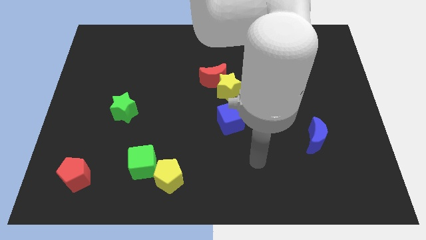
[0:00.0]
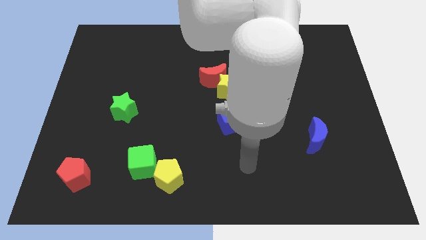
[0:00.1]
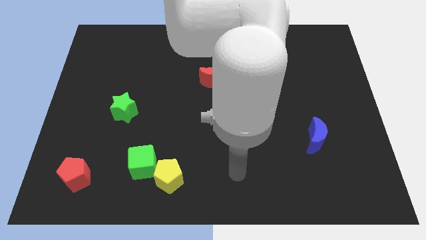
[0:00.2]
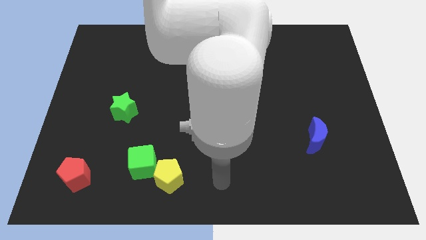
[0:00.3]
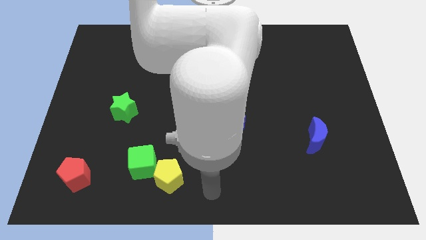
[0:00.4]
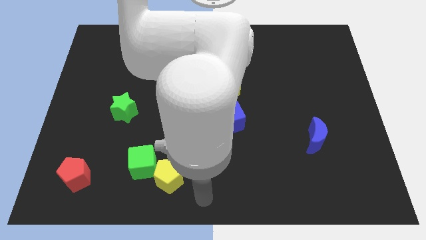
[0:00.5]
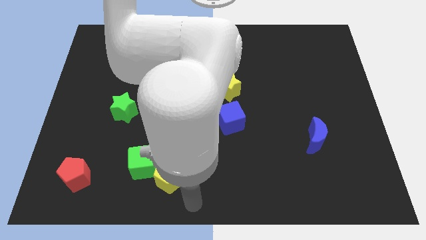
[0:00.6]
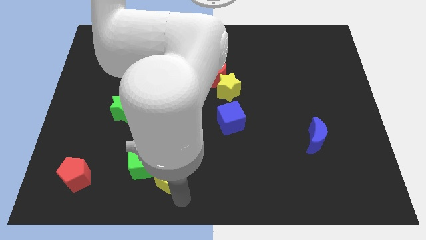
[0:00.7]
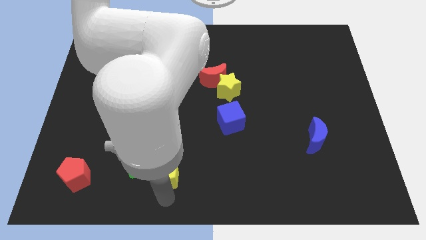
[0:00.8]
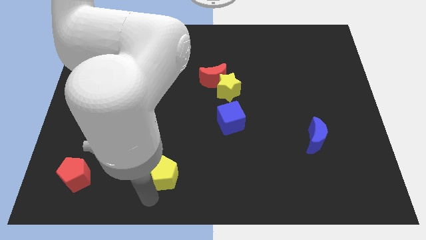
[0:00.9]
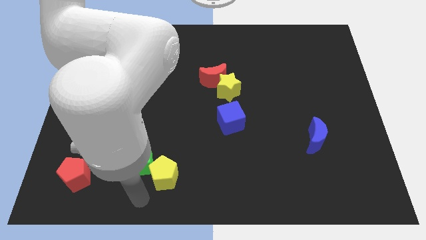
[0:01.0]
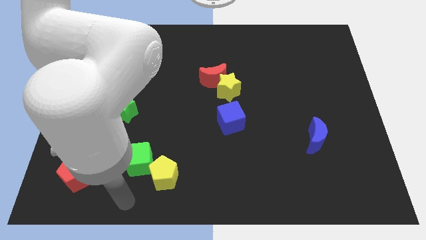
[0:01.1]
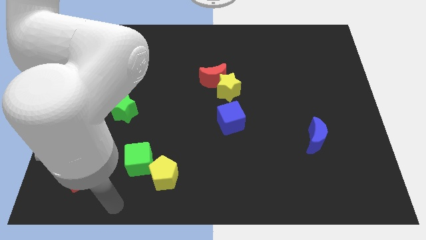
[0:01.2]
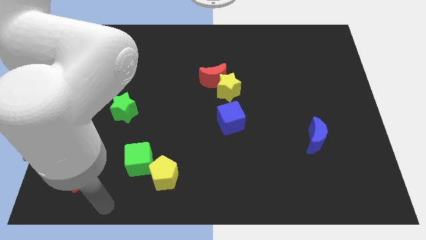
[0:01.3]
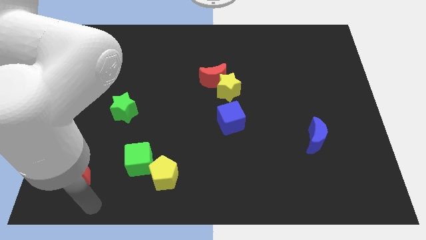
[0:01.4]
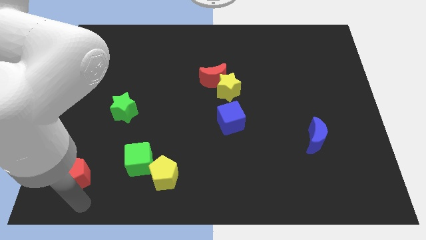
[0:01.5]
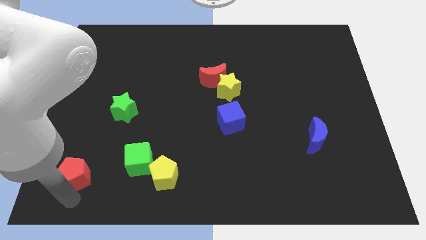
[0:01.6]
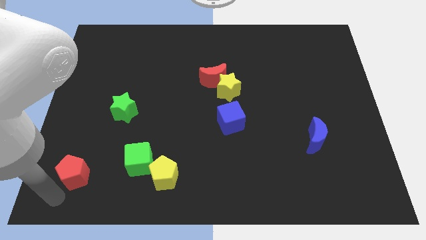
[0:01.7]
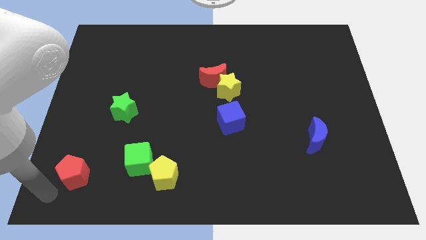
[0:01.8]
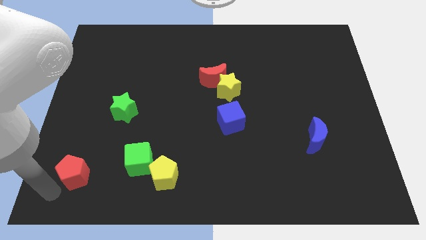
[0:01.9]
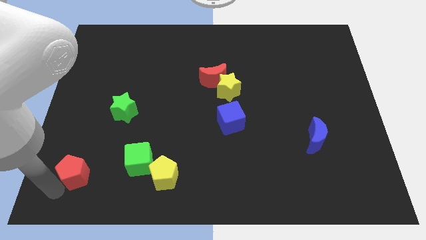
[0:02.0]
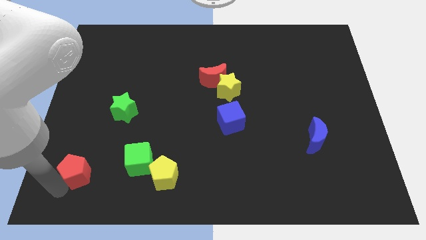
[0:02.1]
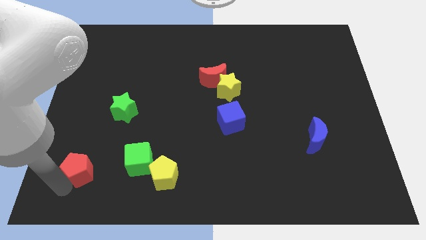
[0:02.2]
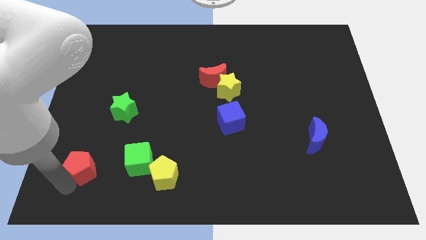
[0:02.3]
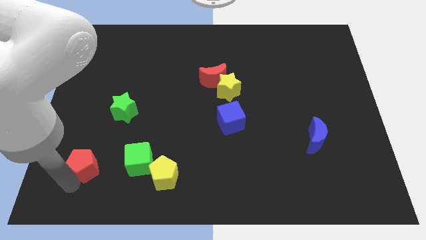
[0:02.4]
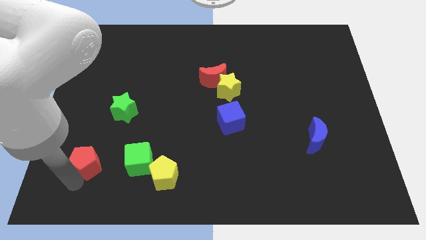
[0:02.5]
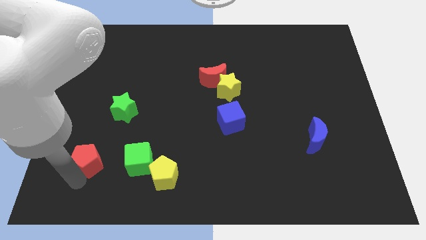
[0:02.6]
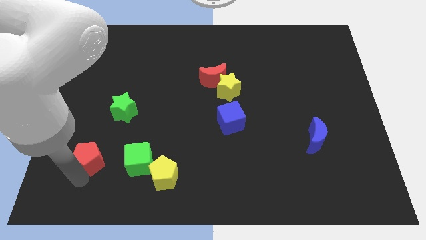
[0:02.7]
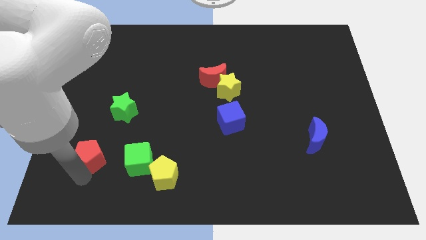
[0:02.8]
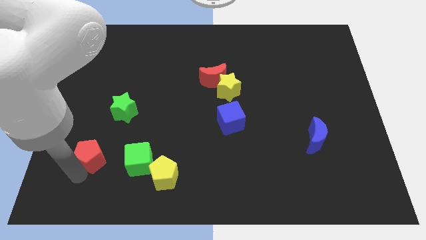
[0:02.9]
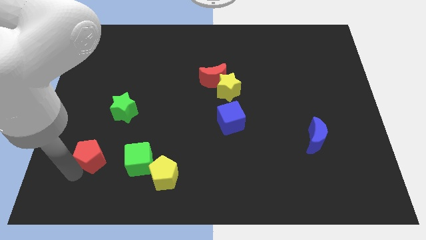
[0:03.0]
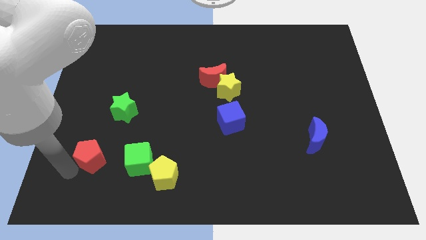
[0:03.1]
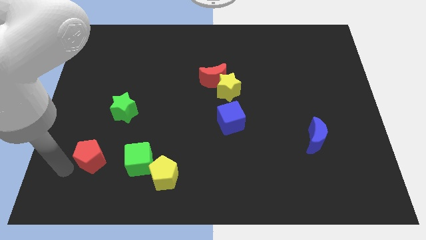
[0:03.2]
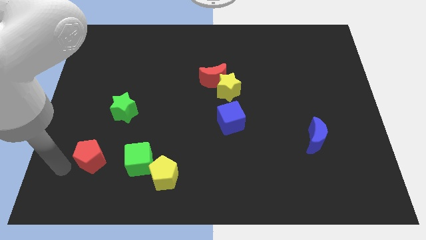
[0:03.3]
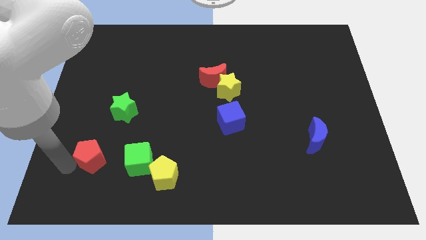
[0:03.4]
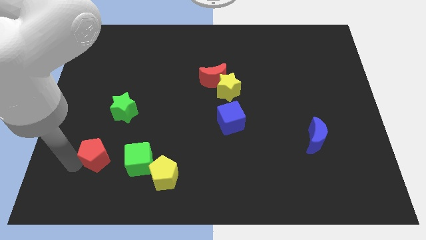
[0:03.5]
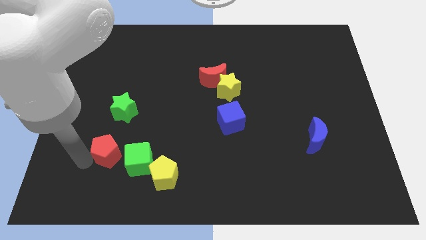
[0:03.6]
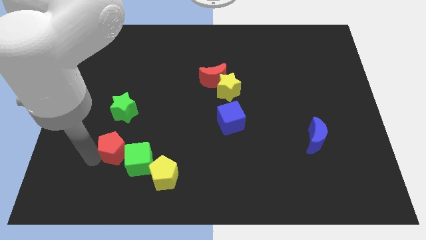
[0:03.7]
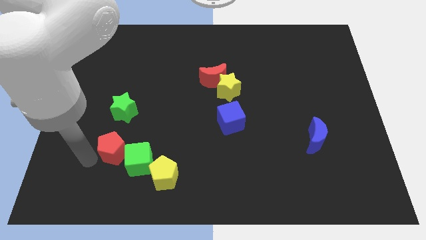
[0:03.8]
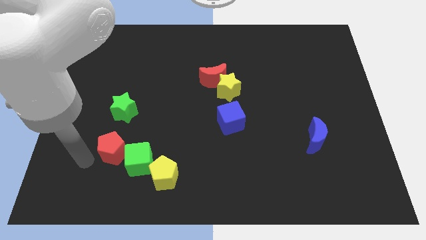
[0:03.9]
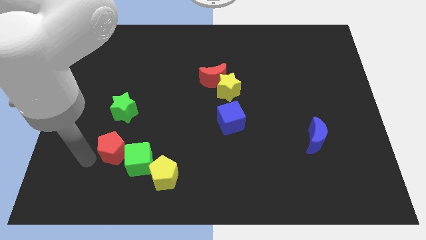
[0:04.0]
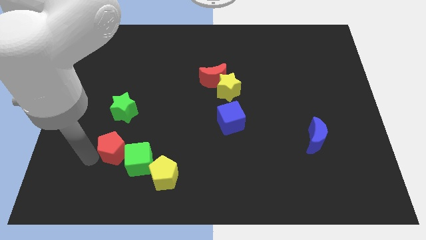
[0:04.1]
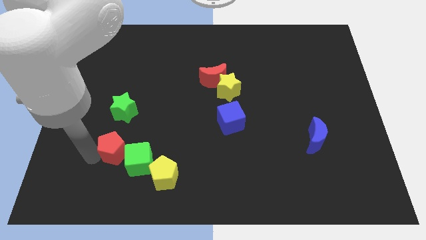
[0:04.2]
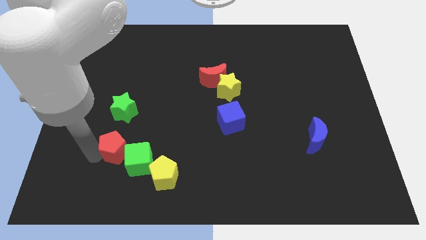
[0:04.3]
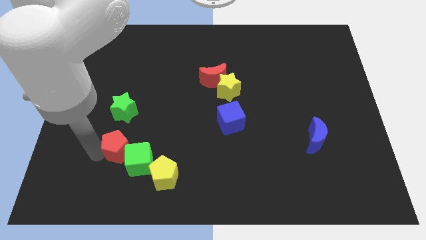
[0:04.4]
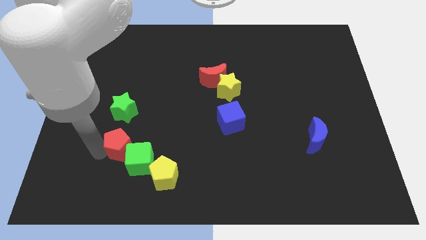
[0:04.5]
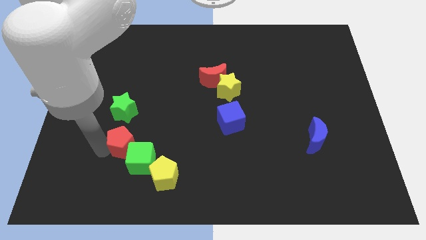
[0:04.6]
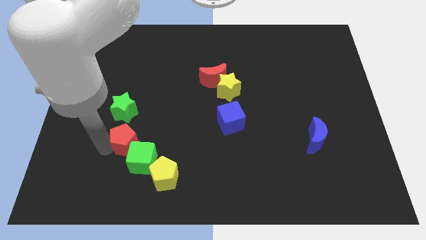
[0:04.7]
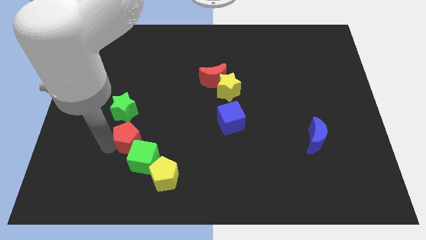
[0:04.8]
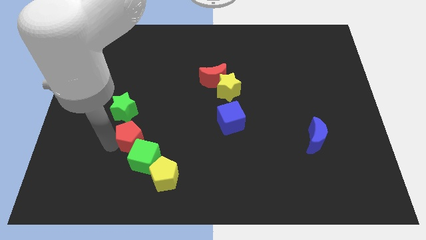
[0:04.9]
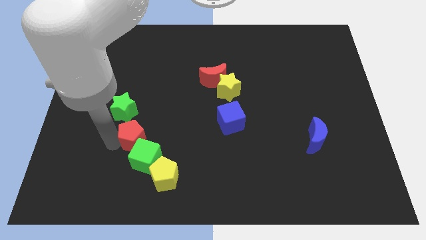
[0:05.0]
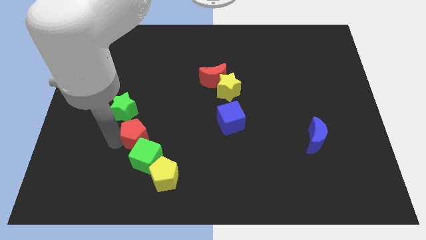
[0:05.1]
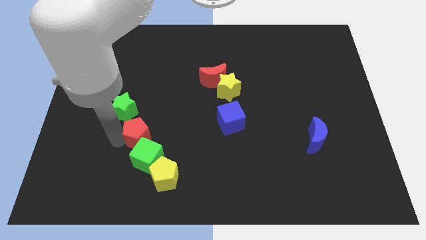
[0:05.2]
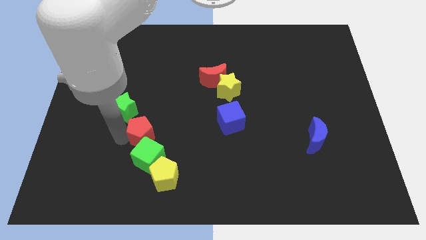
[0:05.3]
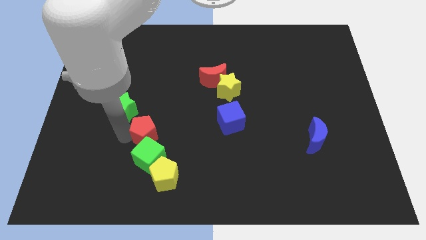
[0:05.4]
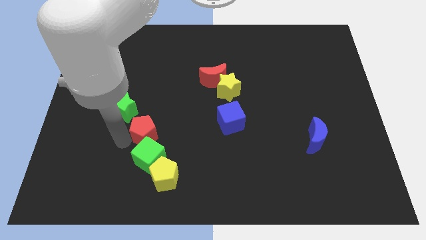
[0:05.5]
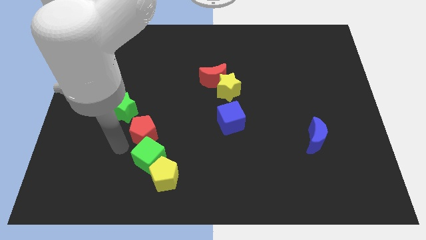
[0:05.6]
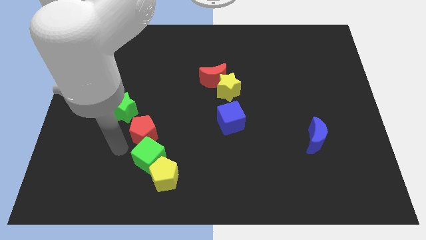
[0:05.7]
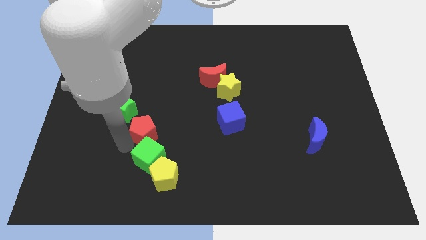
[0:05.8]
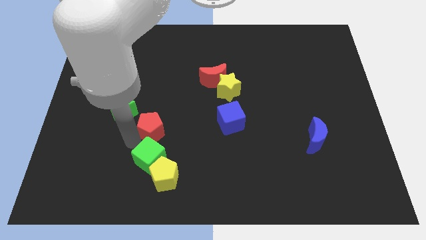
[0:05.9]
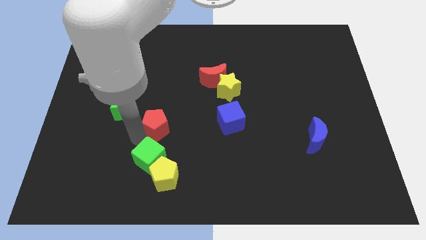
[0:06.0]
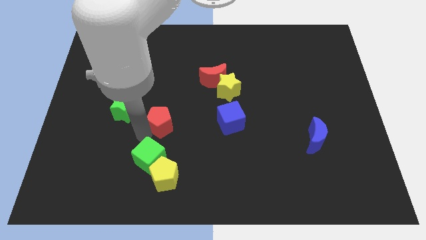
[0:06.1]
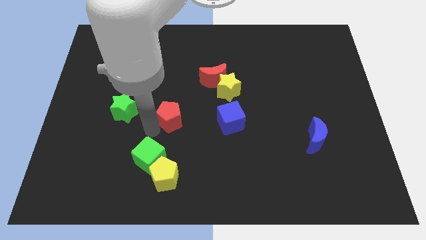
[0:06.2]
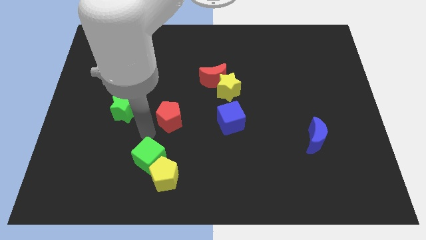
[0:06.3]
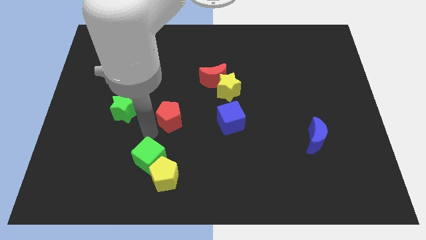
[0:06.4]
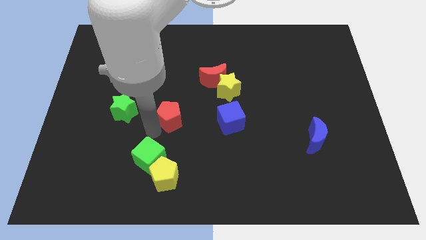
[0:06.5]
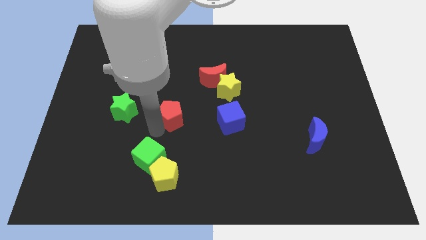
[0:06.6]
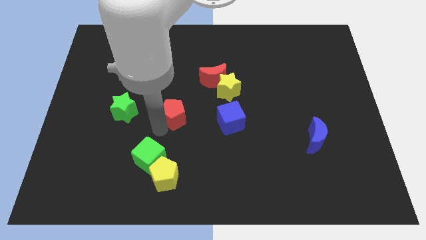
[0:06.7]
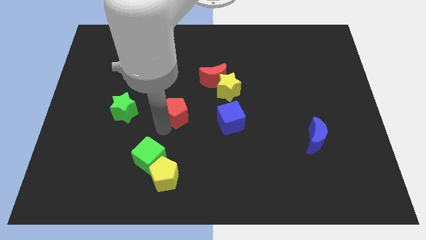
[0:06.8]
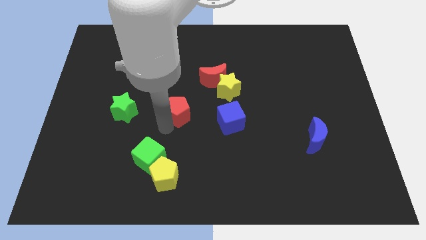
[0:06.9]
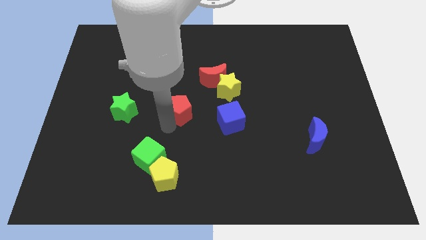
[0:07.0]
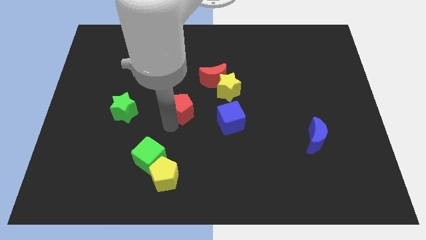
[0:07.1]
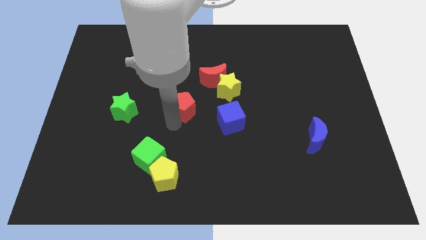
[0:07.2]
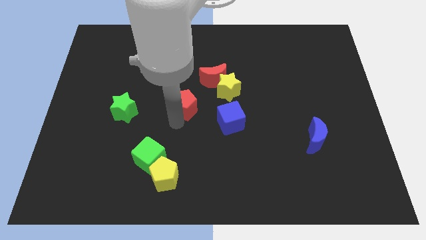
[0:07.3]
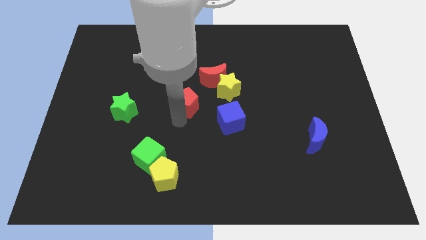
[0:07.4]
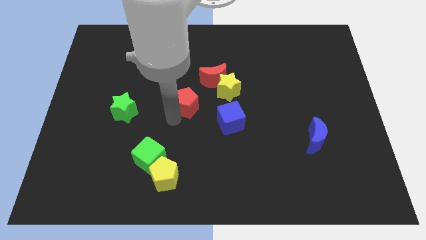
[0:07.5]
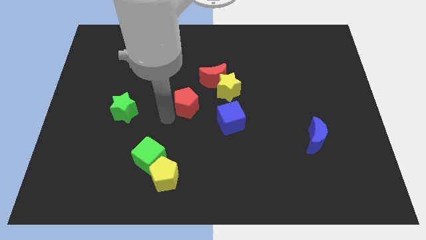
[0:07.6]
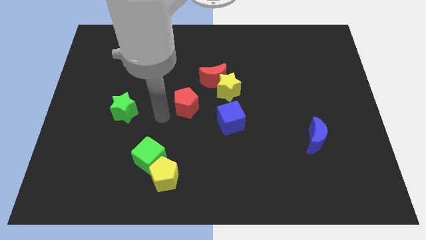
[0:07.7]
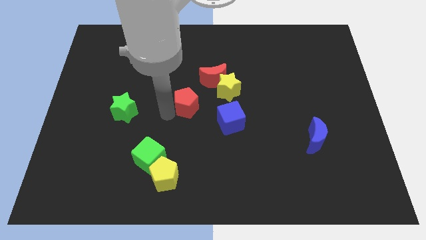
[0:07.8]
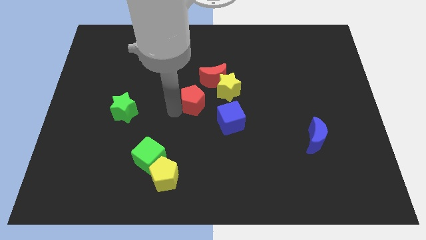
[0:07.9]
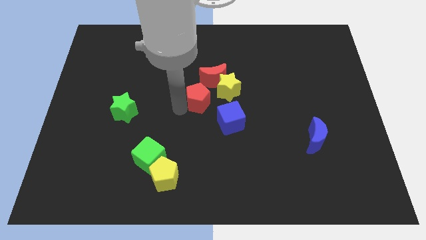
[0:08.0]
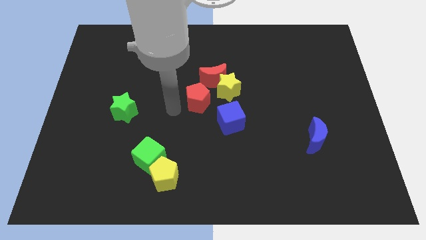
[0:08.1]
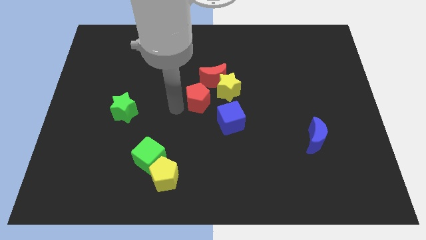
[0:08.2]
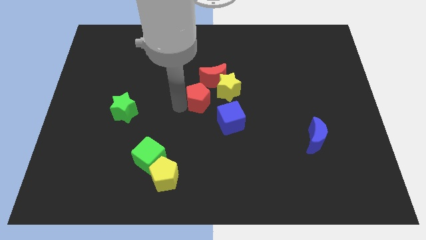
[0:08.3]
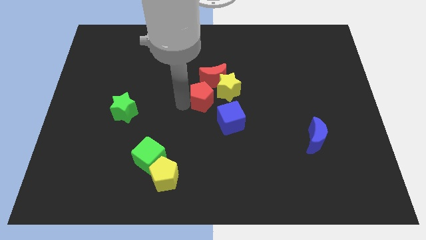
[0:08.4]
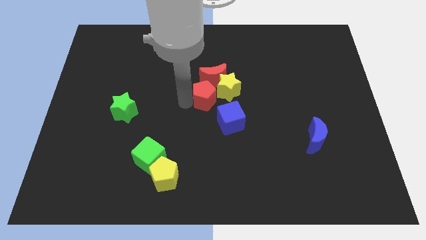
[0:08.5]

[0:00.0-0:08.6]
put the red pentagon next to the yellow star
